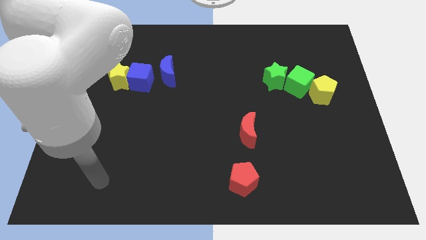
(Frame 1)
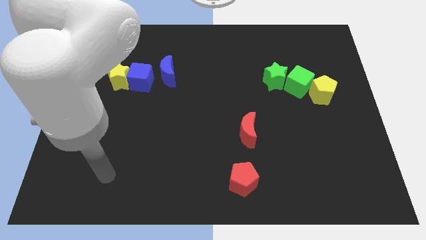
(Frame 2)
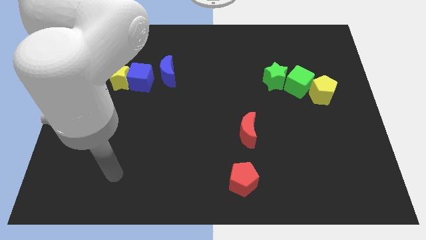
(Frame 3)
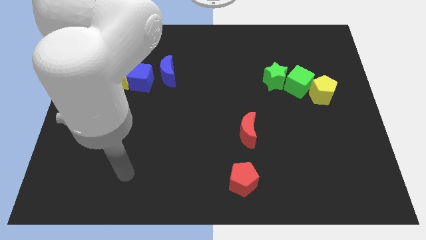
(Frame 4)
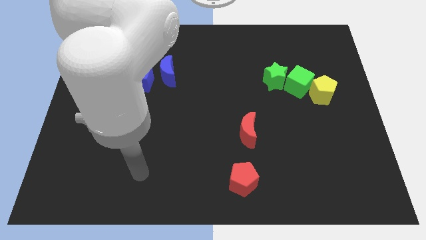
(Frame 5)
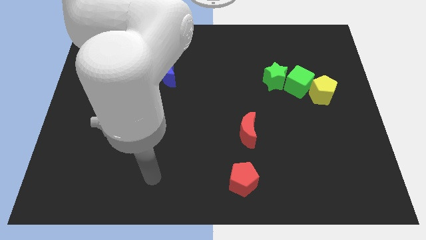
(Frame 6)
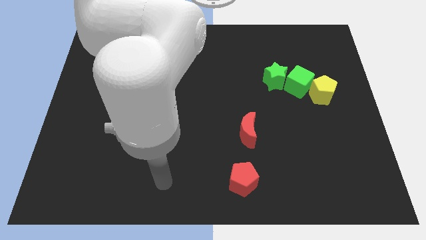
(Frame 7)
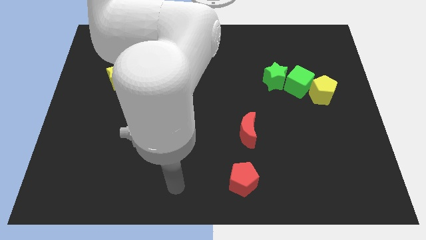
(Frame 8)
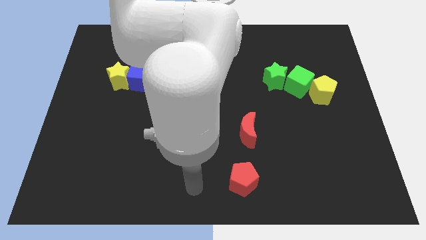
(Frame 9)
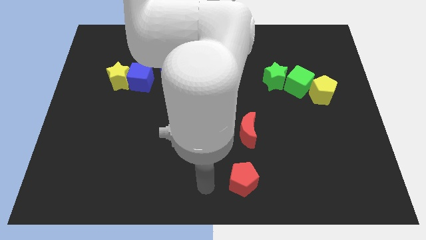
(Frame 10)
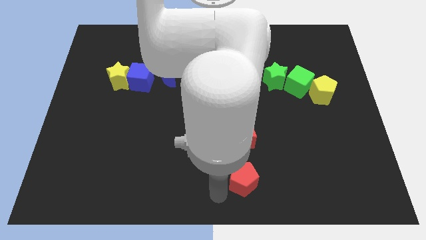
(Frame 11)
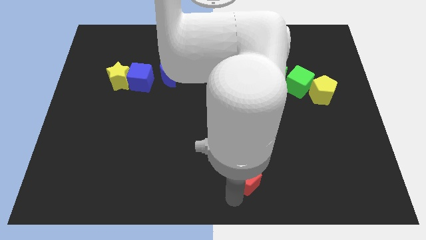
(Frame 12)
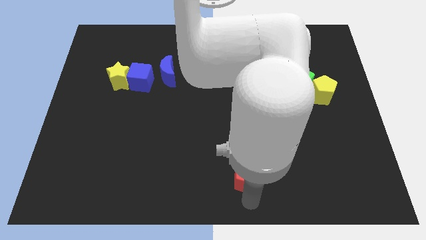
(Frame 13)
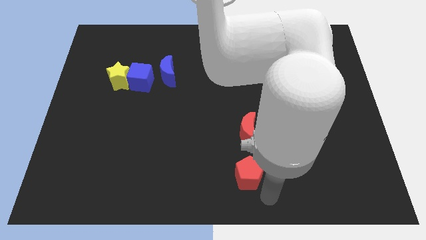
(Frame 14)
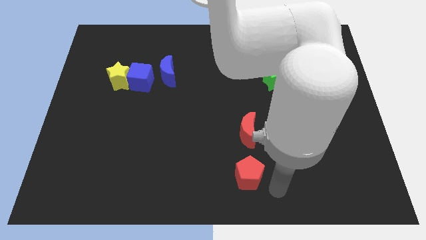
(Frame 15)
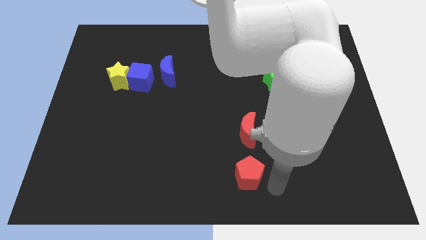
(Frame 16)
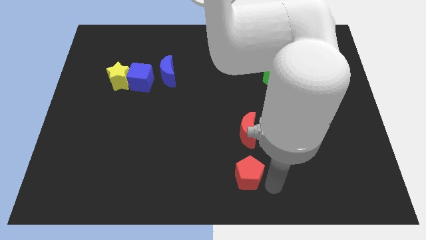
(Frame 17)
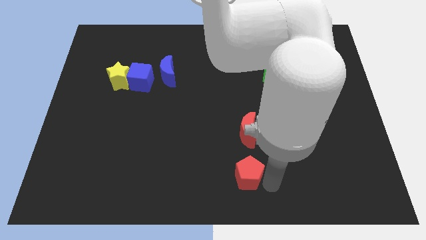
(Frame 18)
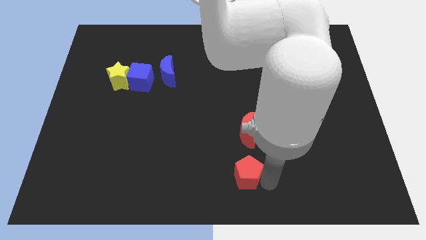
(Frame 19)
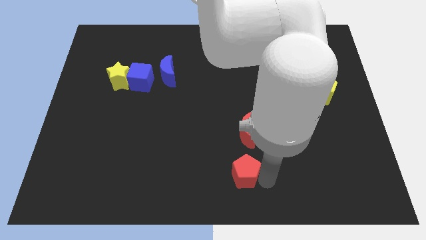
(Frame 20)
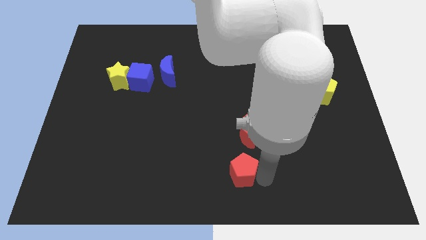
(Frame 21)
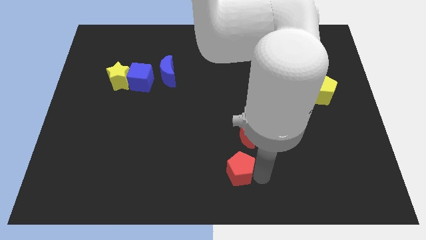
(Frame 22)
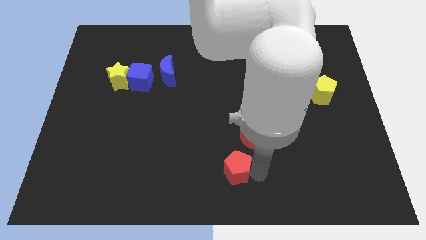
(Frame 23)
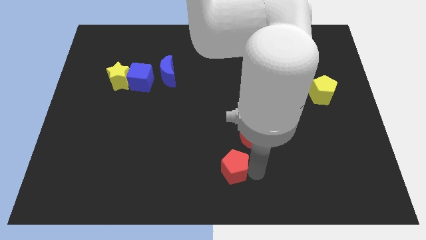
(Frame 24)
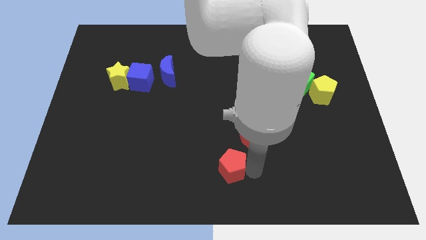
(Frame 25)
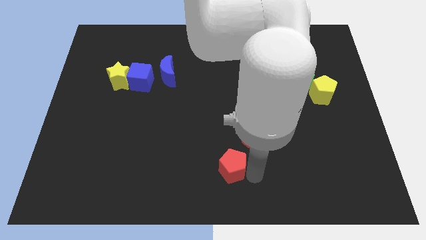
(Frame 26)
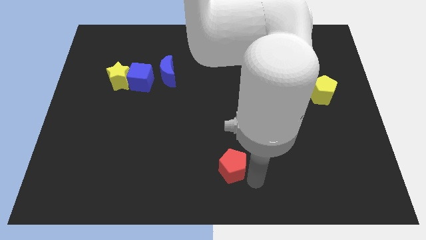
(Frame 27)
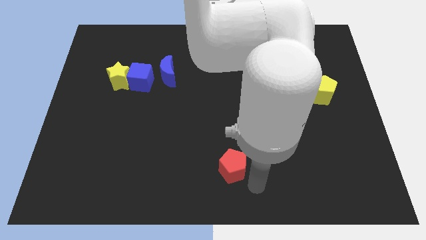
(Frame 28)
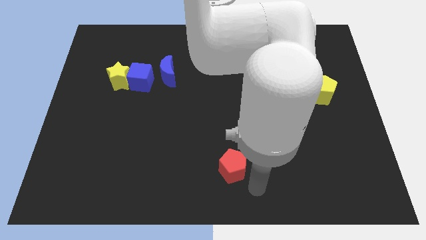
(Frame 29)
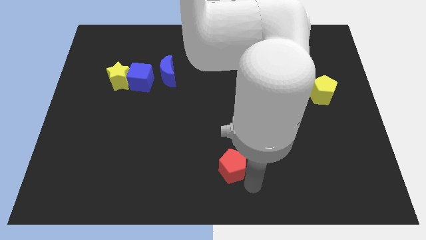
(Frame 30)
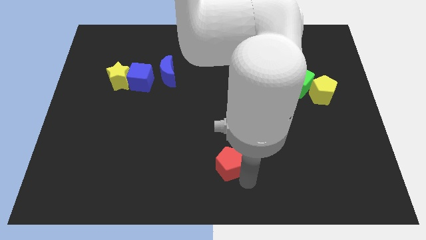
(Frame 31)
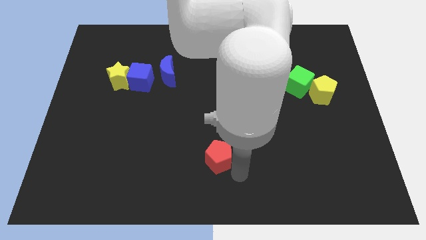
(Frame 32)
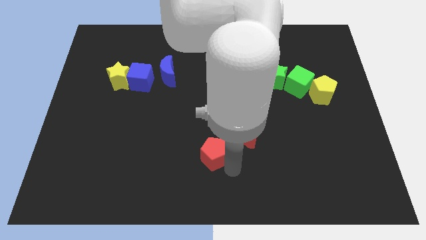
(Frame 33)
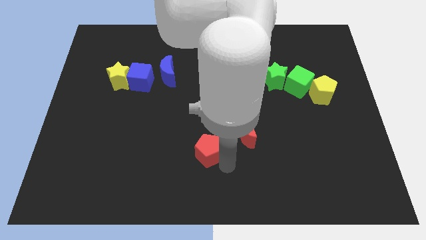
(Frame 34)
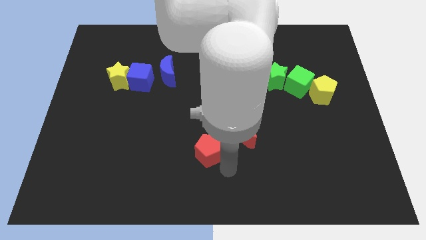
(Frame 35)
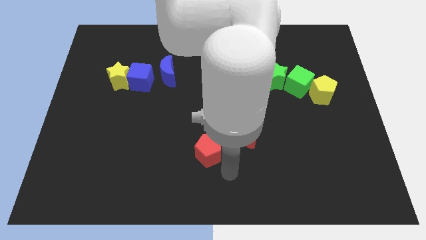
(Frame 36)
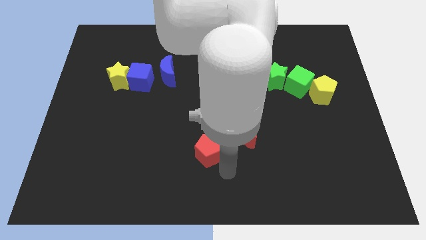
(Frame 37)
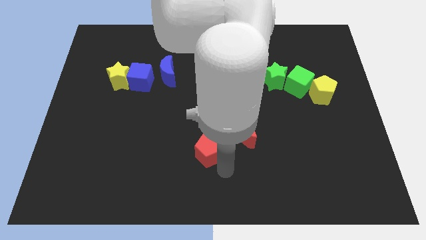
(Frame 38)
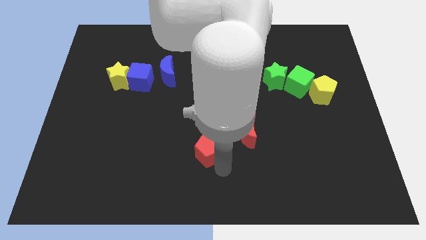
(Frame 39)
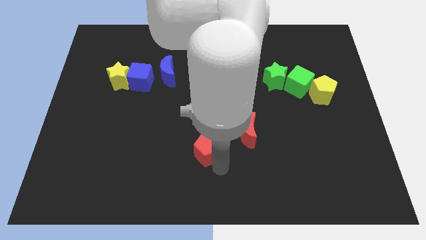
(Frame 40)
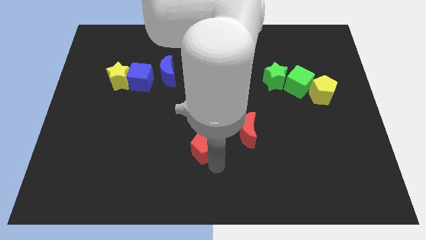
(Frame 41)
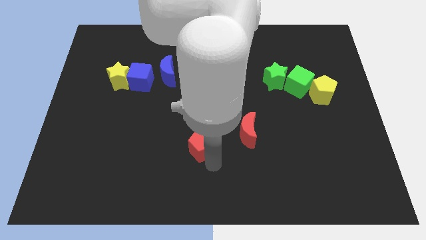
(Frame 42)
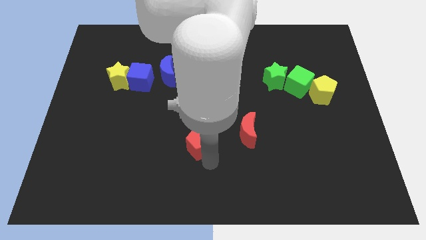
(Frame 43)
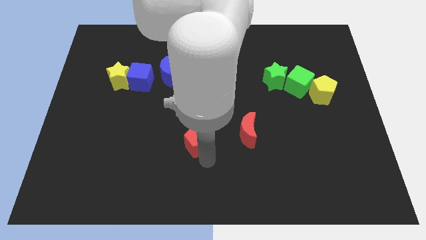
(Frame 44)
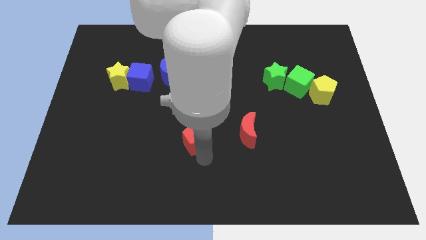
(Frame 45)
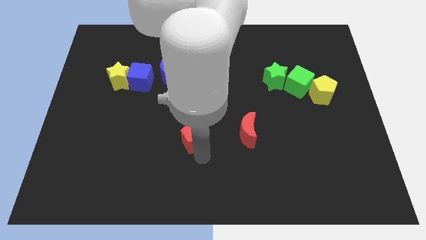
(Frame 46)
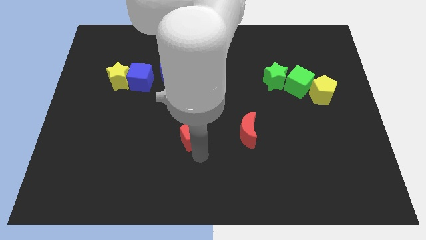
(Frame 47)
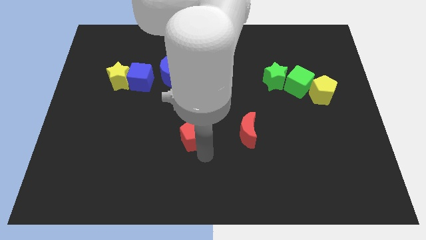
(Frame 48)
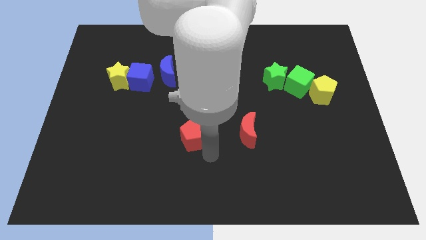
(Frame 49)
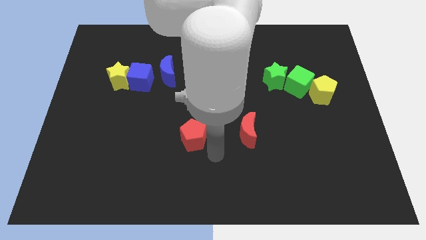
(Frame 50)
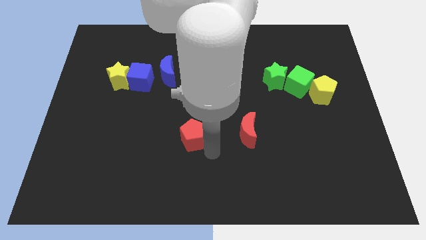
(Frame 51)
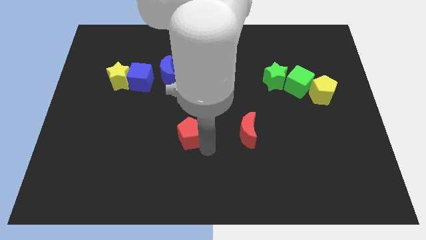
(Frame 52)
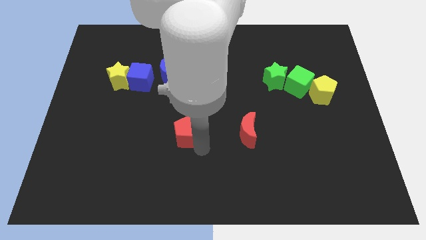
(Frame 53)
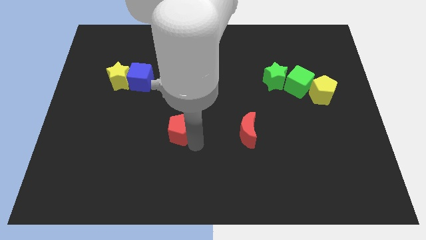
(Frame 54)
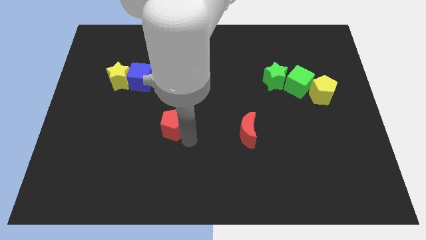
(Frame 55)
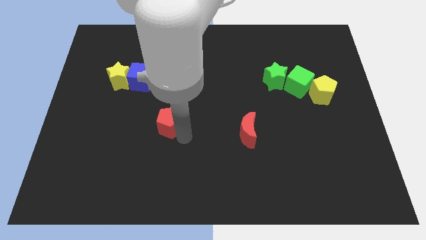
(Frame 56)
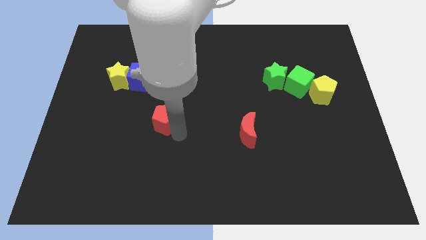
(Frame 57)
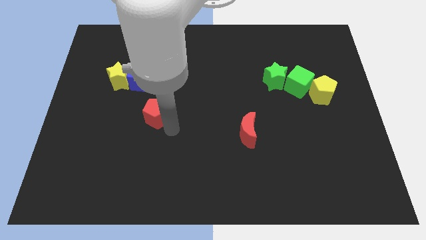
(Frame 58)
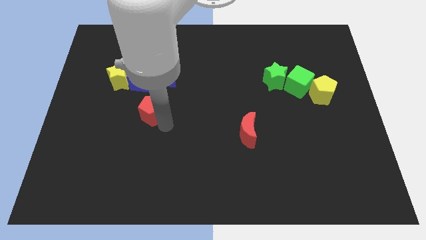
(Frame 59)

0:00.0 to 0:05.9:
put the red pentagon to the bottom right of the blue cube

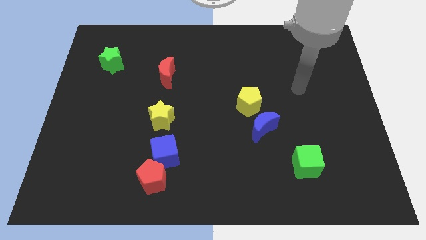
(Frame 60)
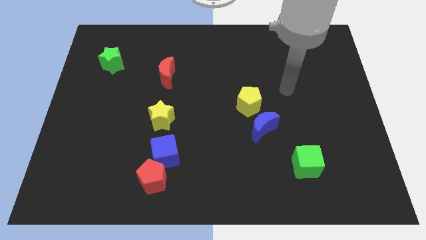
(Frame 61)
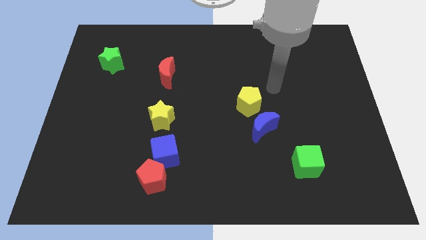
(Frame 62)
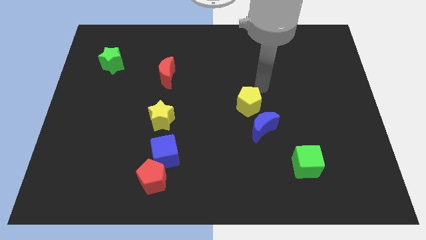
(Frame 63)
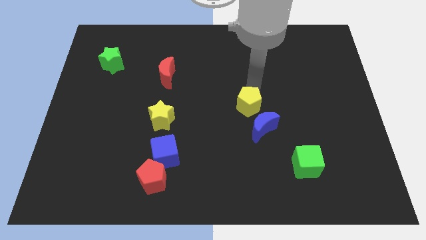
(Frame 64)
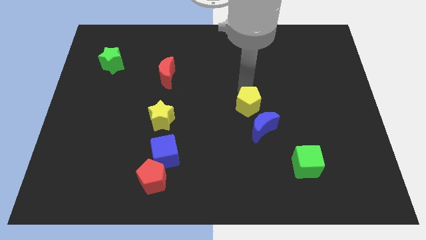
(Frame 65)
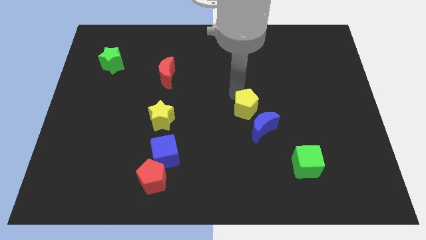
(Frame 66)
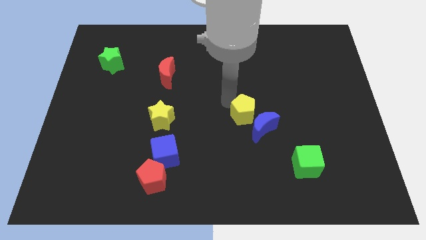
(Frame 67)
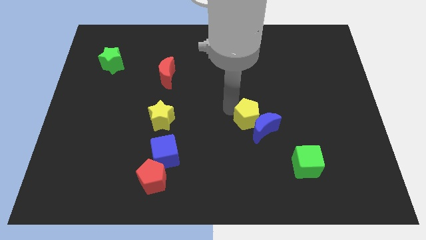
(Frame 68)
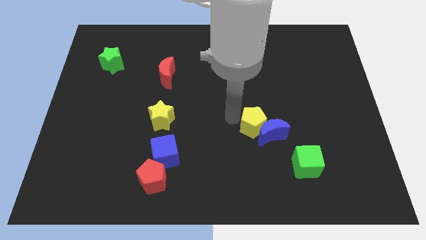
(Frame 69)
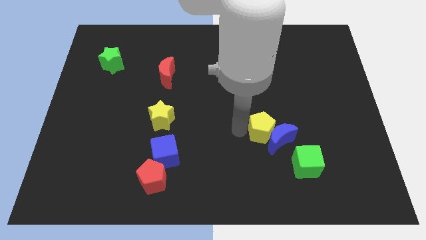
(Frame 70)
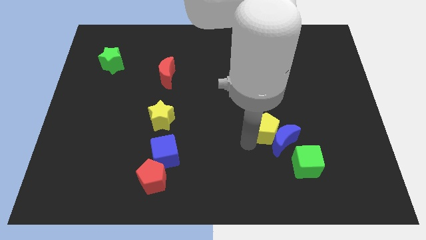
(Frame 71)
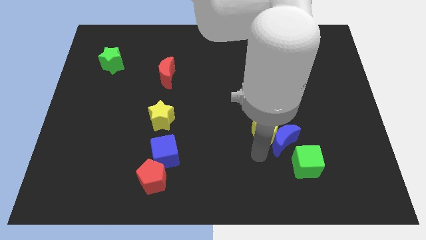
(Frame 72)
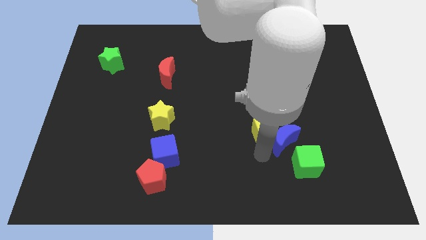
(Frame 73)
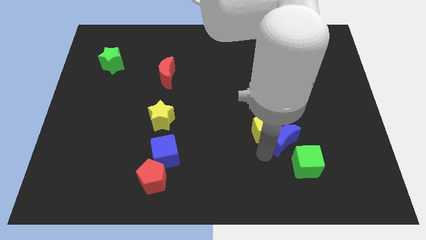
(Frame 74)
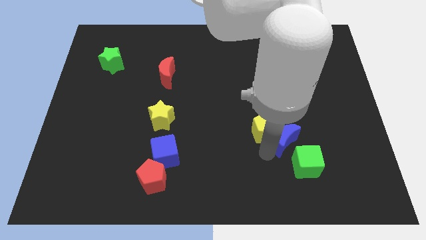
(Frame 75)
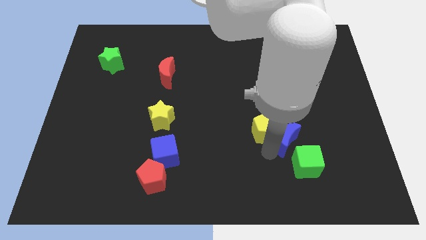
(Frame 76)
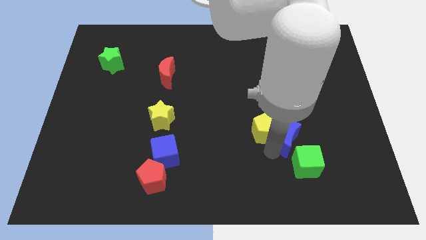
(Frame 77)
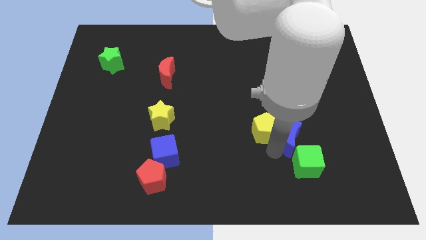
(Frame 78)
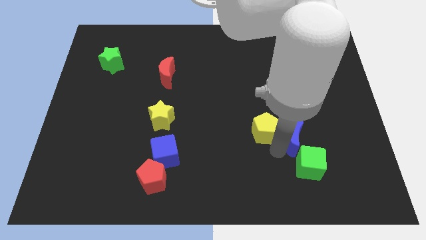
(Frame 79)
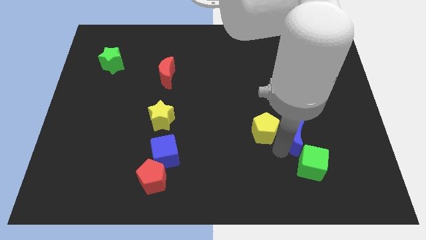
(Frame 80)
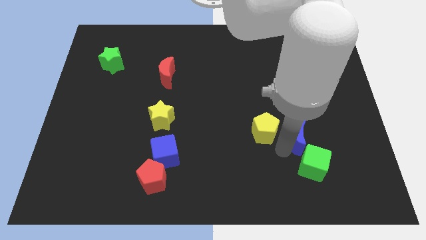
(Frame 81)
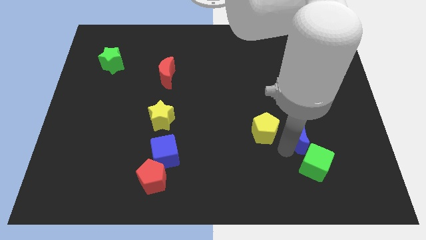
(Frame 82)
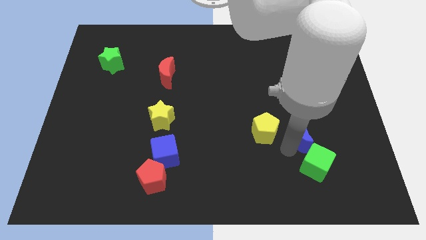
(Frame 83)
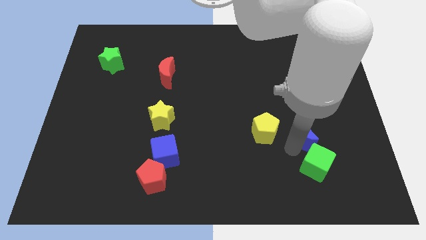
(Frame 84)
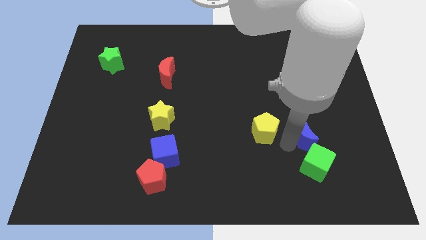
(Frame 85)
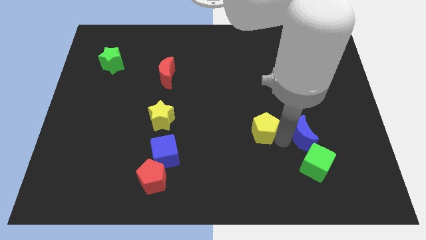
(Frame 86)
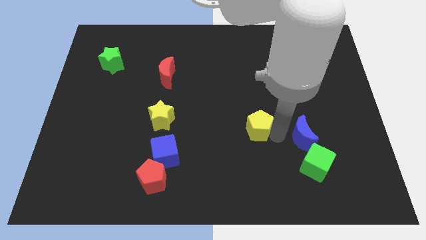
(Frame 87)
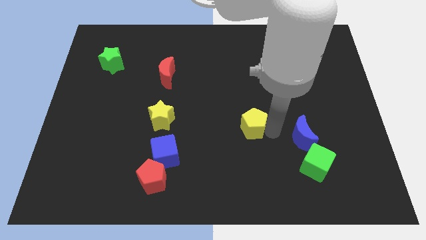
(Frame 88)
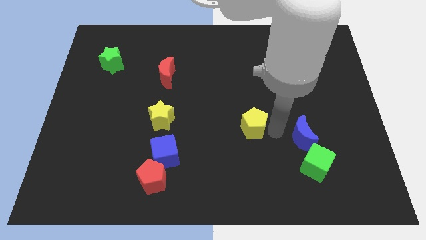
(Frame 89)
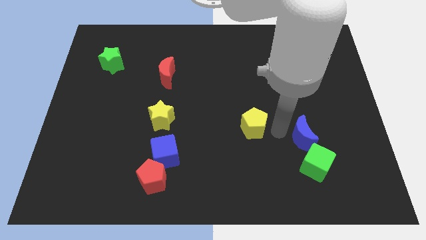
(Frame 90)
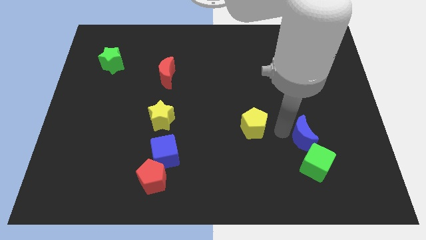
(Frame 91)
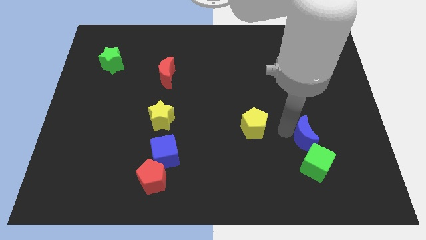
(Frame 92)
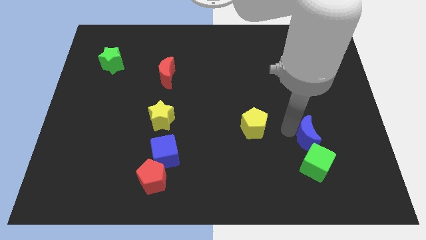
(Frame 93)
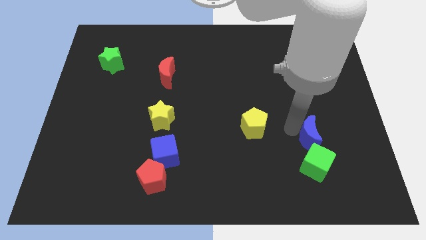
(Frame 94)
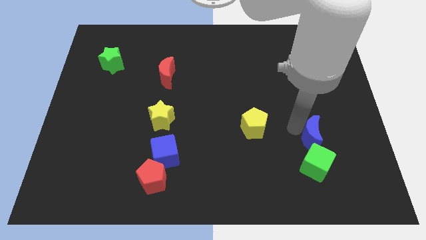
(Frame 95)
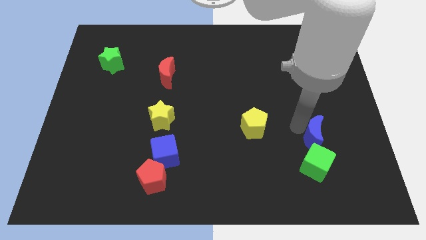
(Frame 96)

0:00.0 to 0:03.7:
put the blue moon to the top right of the green cube
